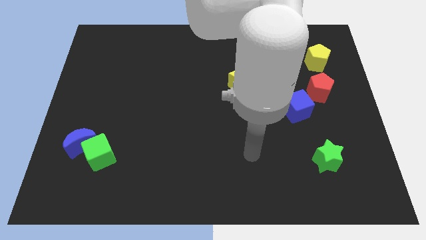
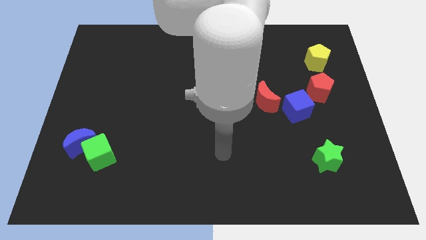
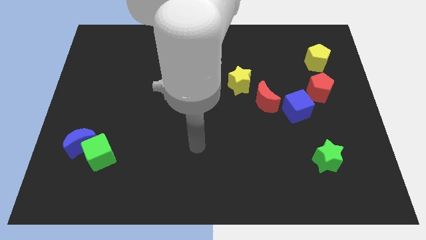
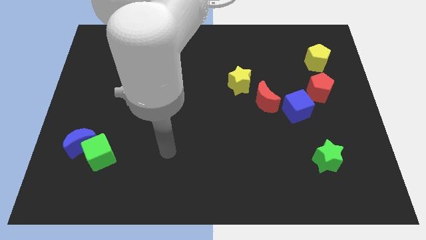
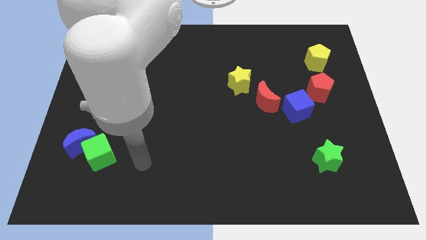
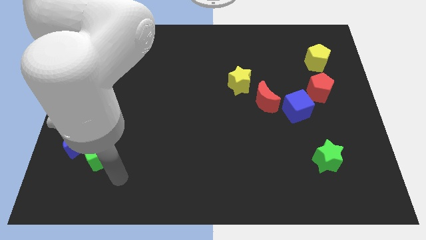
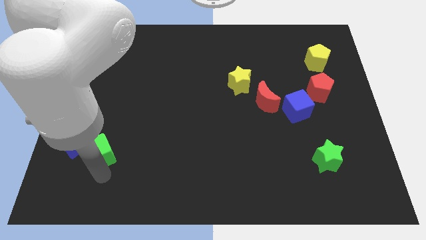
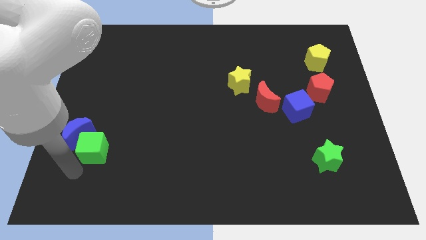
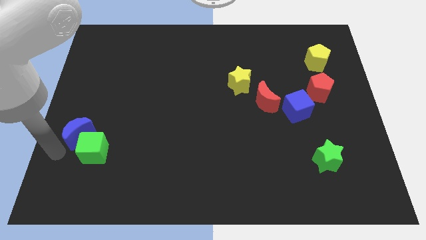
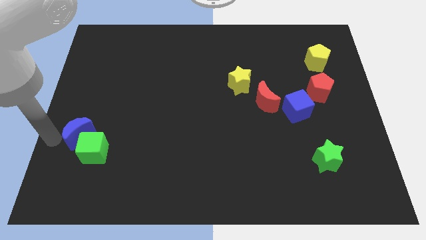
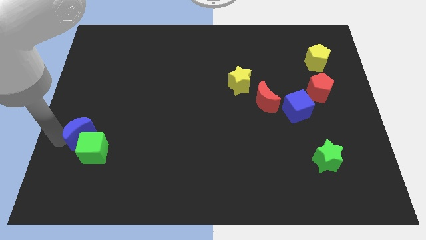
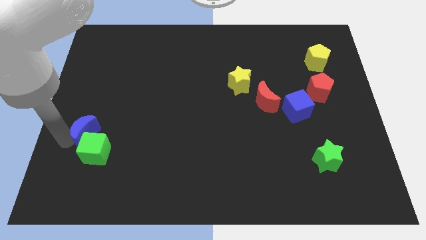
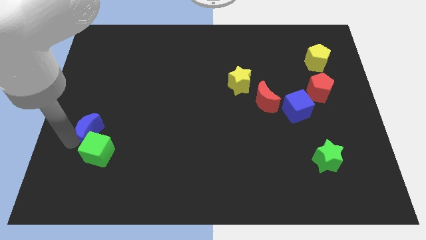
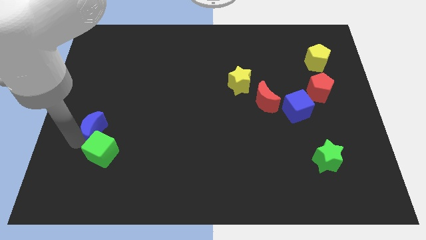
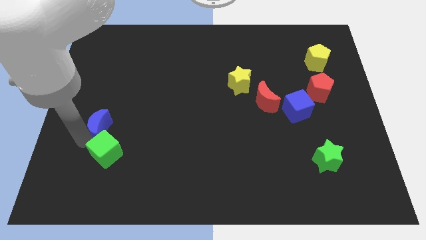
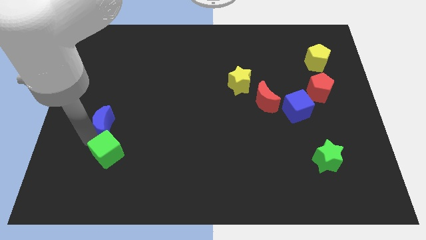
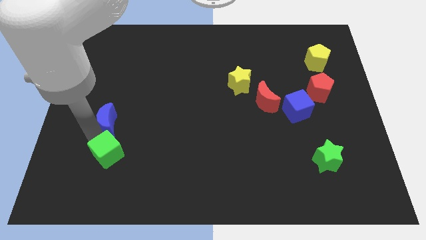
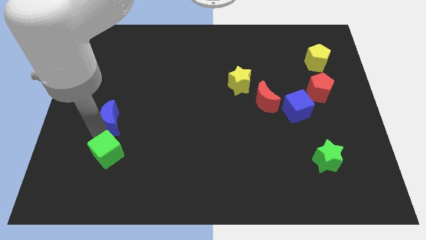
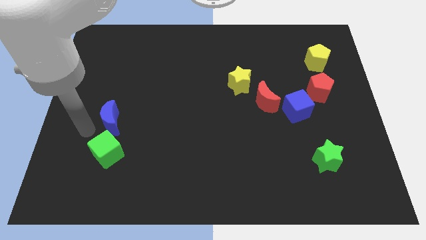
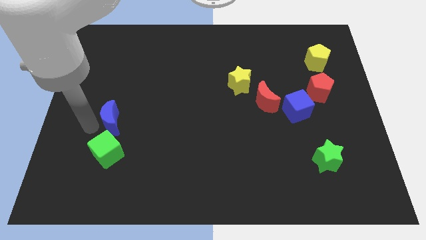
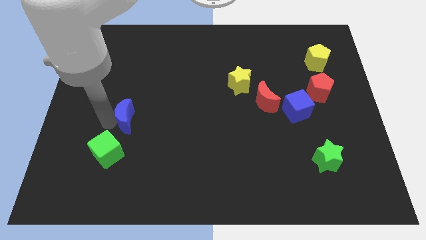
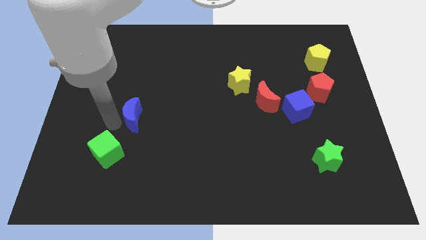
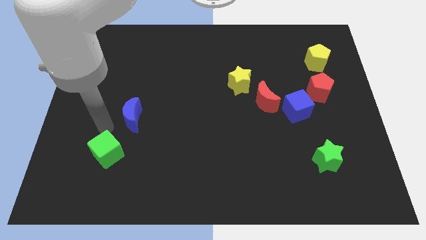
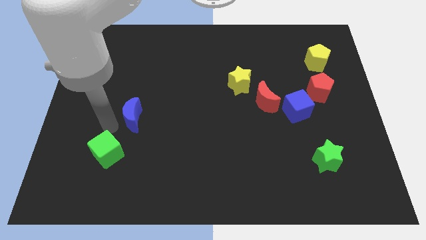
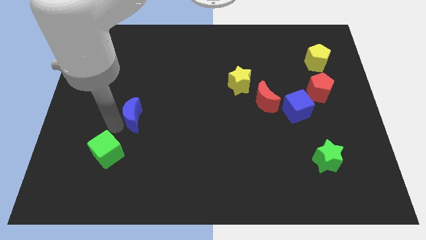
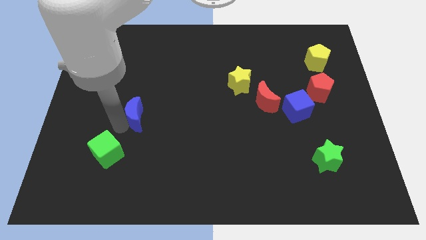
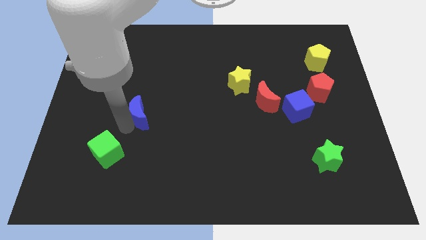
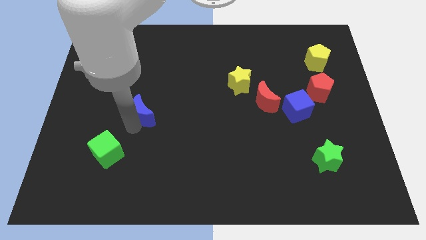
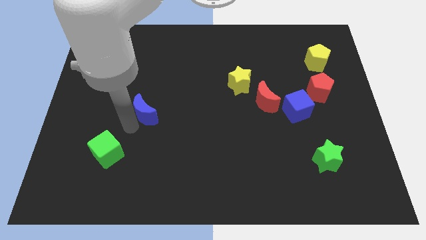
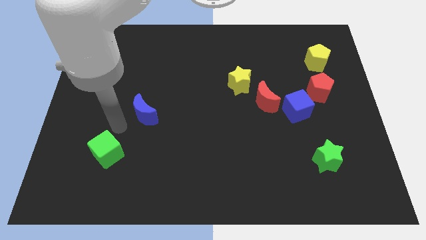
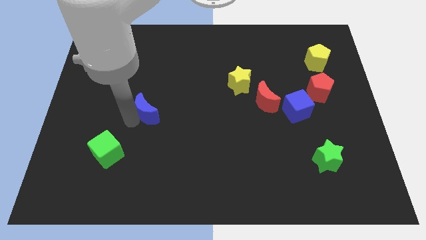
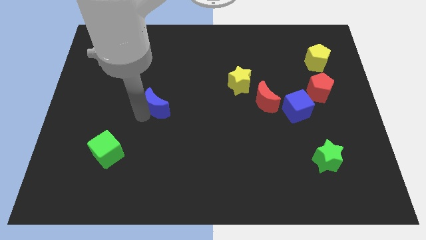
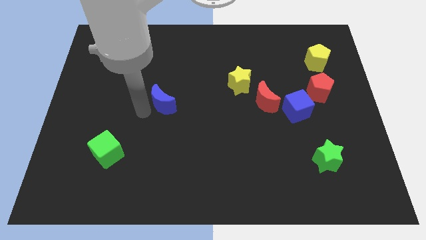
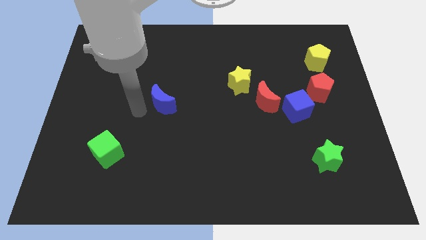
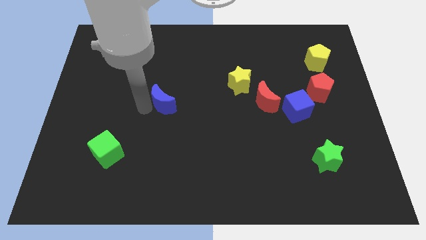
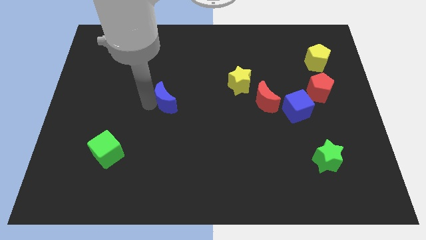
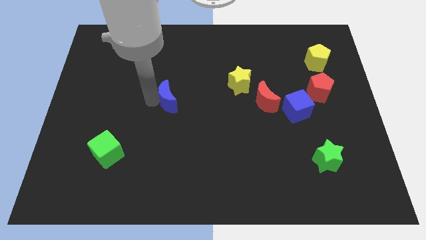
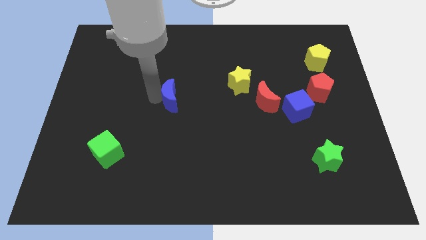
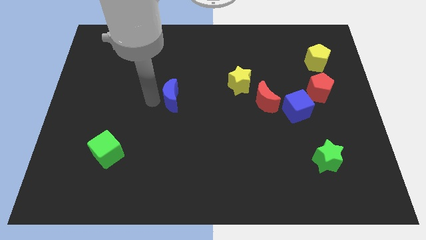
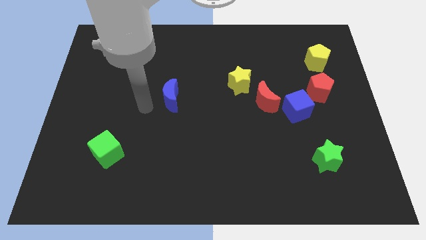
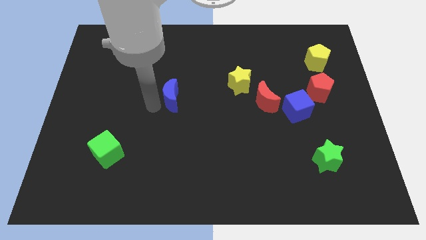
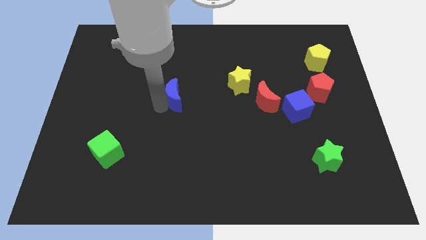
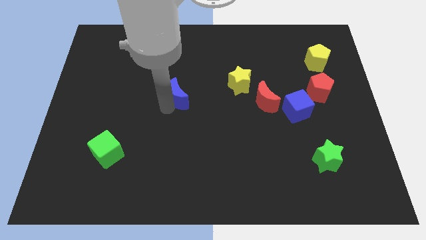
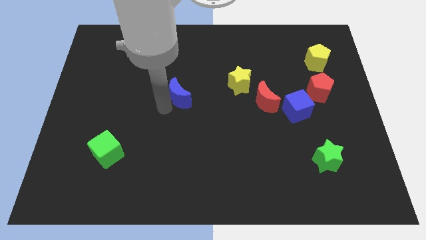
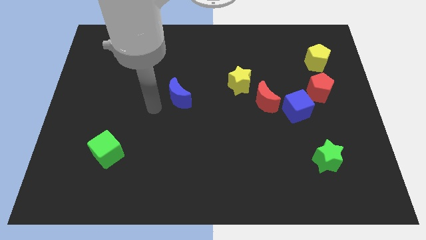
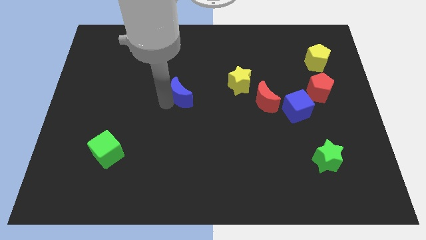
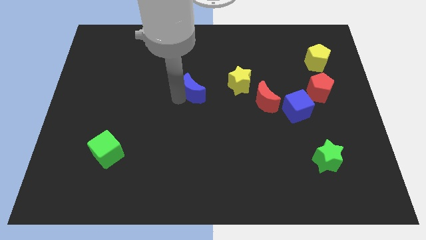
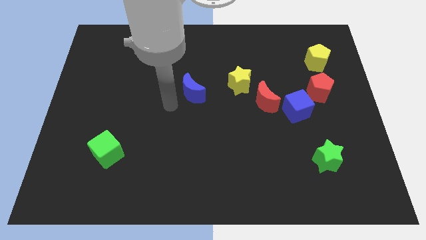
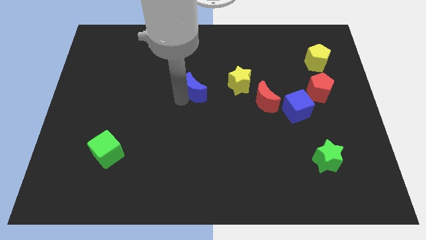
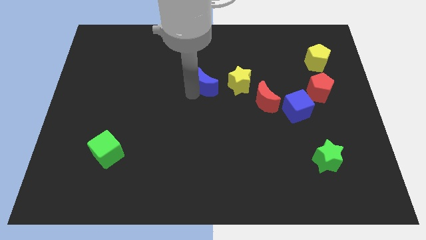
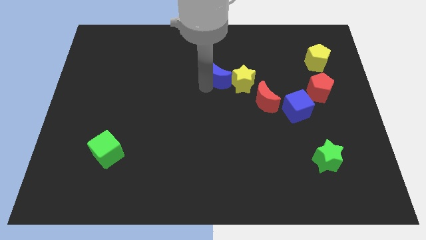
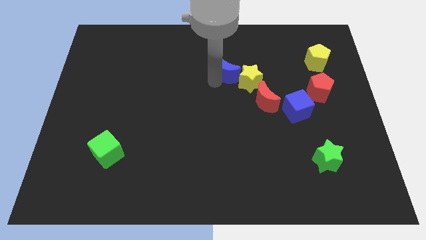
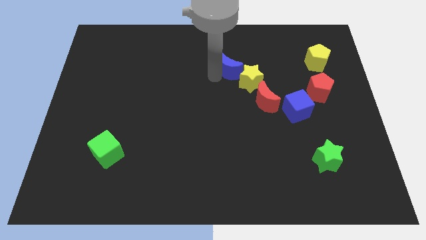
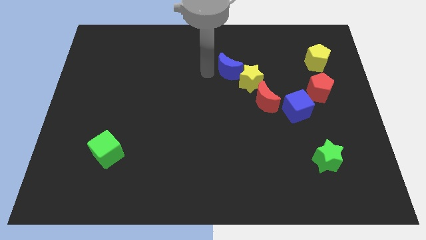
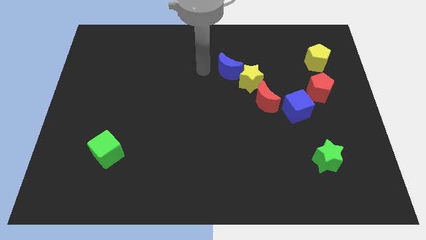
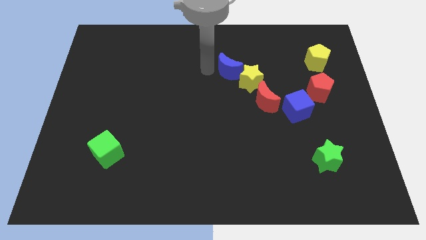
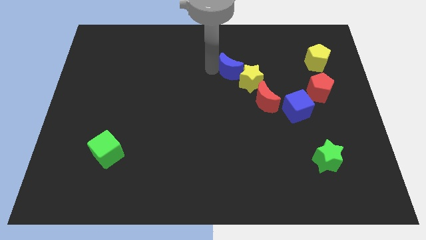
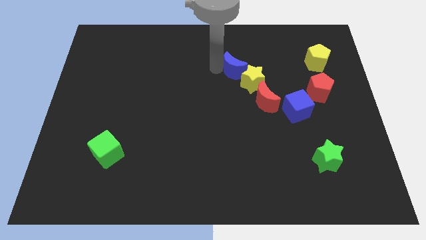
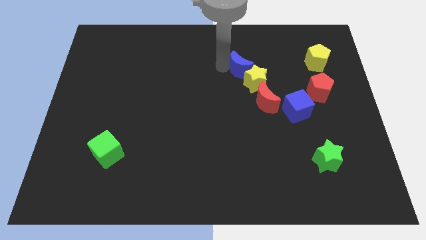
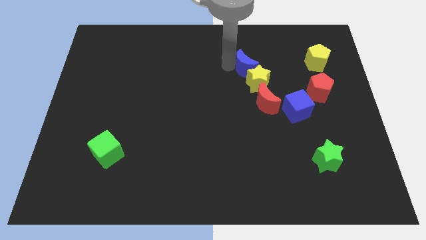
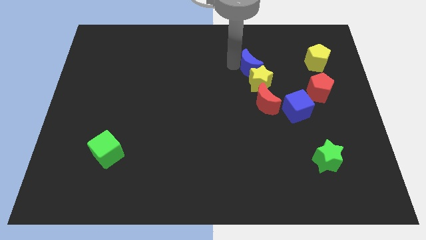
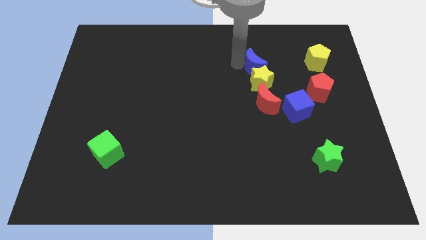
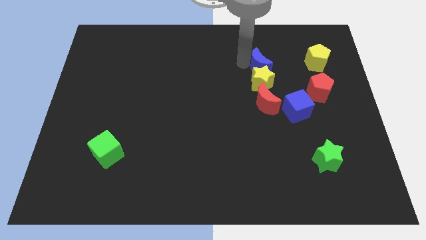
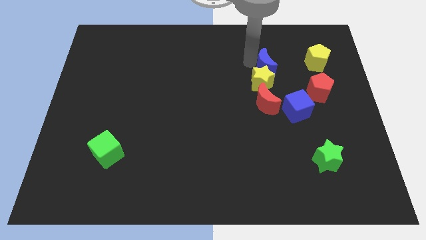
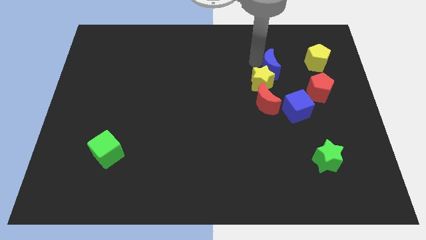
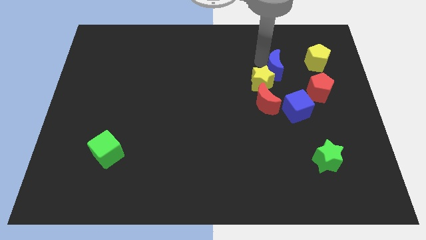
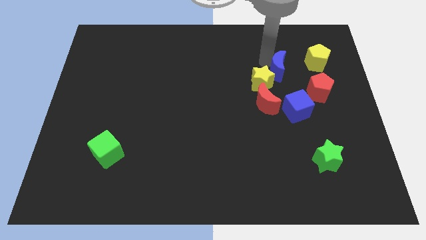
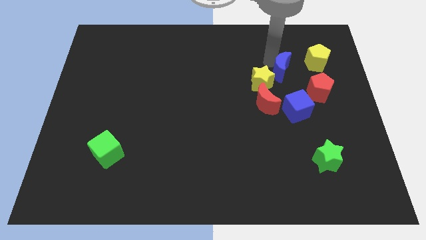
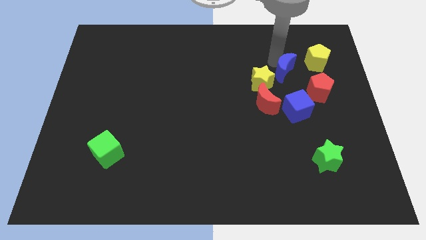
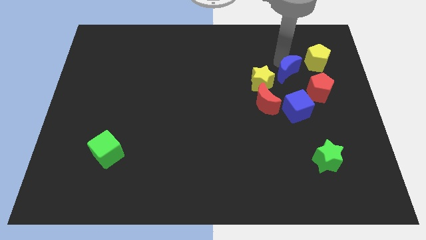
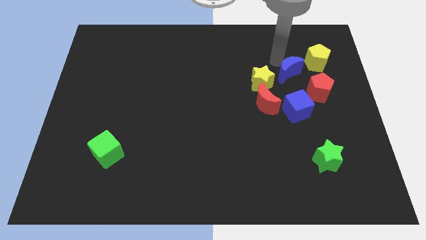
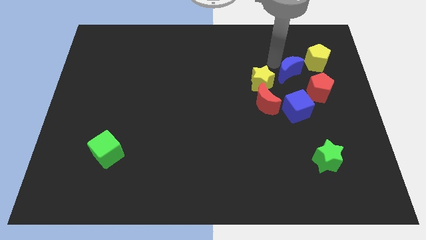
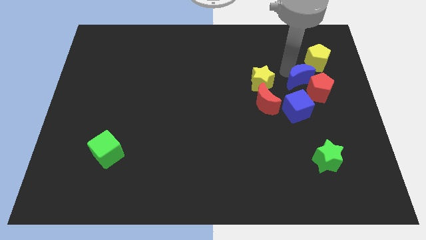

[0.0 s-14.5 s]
put the blue moon close to the red pentagon
